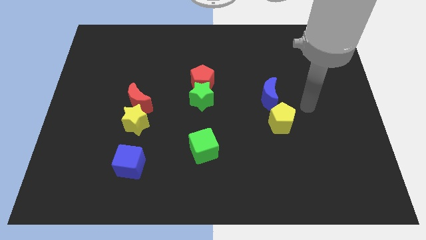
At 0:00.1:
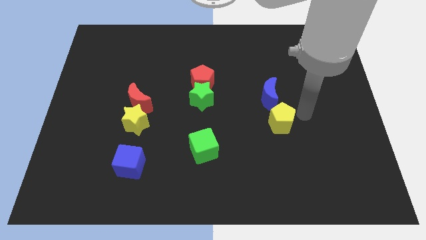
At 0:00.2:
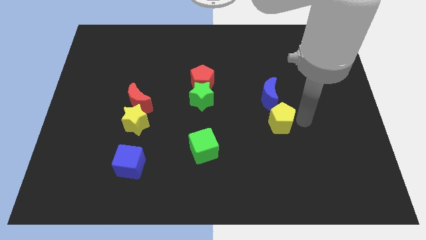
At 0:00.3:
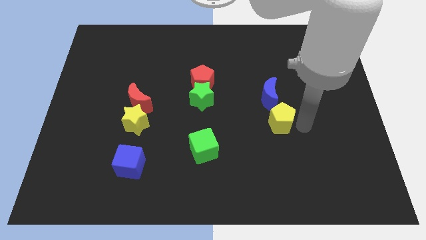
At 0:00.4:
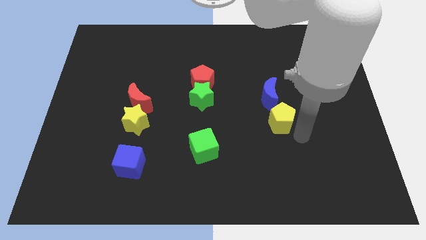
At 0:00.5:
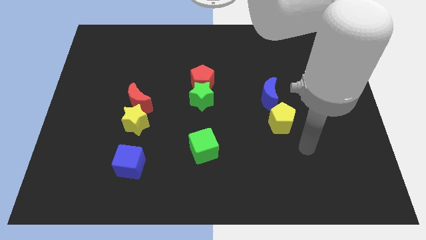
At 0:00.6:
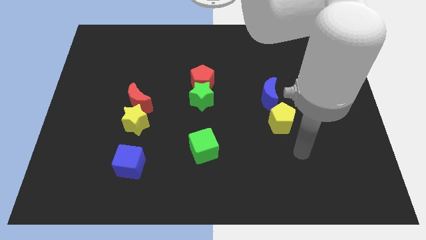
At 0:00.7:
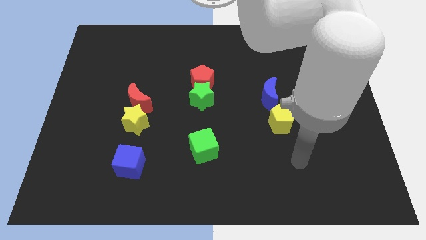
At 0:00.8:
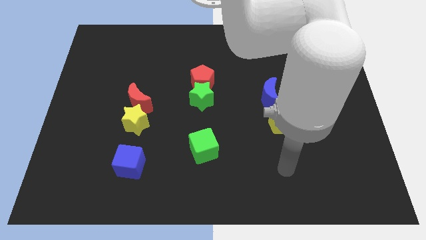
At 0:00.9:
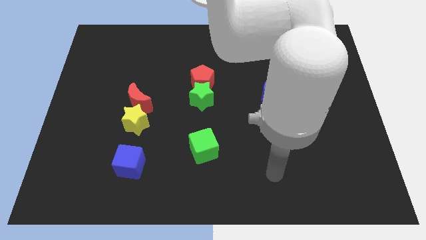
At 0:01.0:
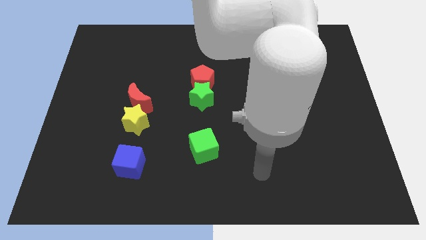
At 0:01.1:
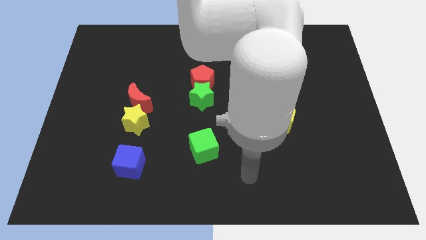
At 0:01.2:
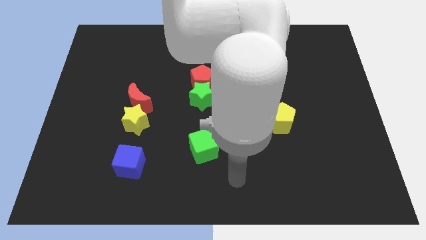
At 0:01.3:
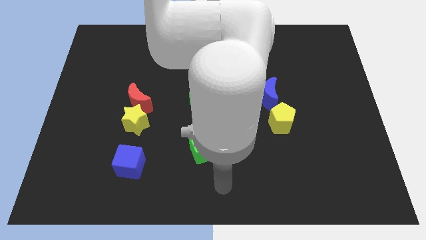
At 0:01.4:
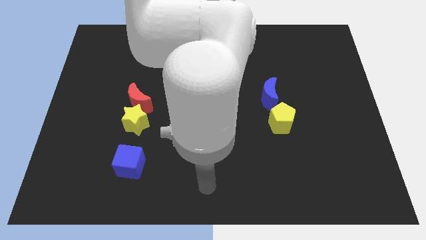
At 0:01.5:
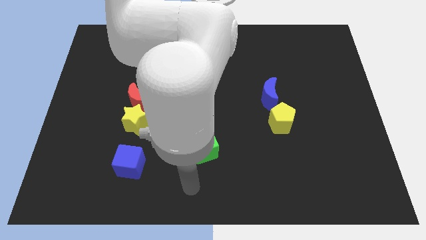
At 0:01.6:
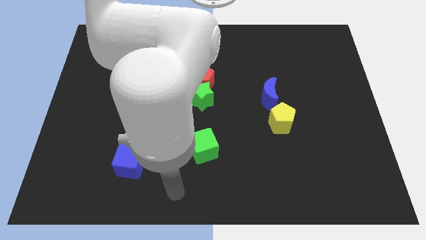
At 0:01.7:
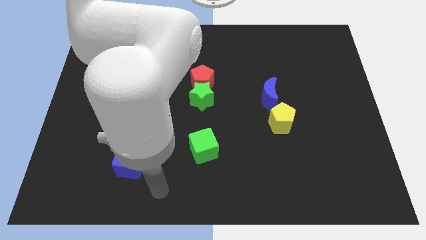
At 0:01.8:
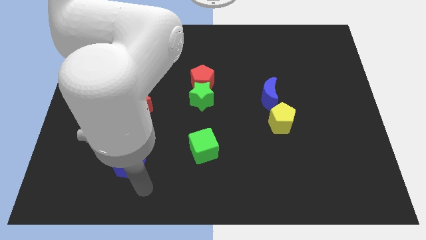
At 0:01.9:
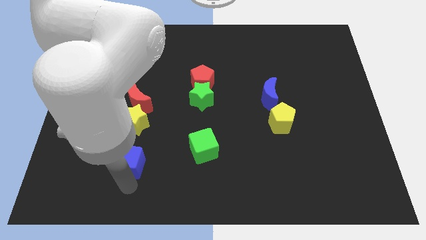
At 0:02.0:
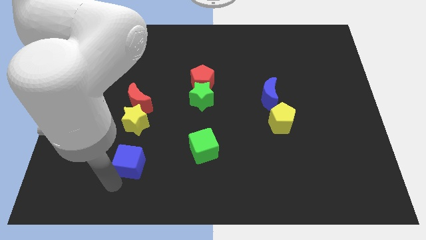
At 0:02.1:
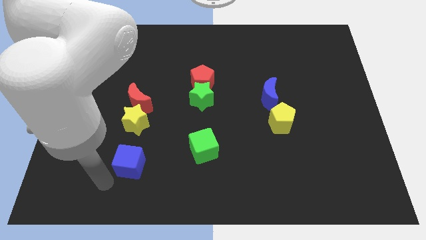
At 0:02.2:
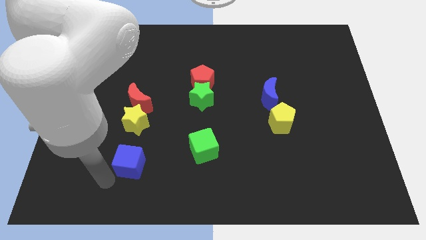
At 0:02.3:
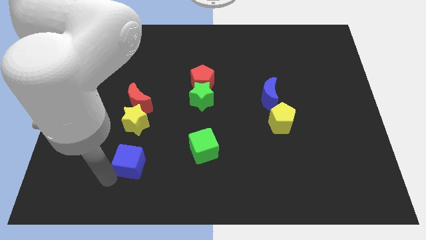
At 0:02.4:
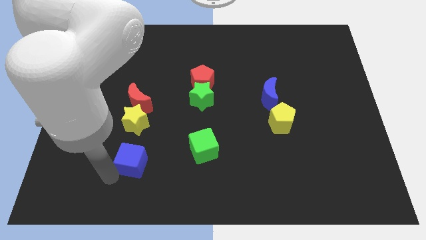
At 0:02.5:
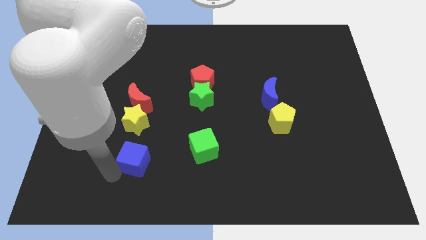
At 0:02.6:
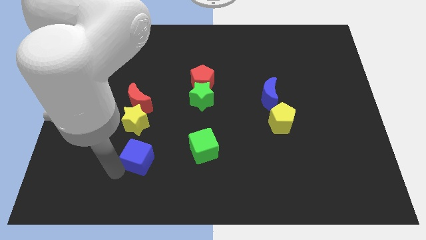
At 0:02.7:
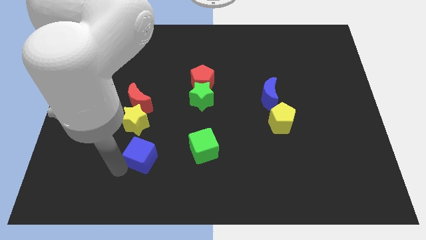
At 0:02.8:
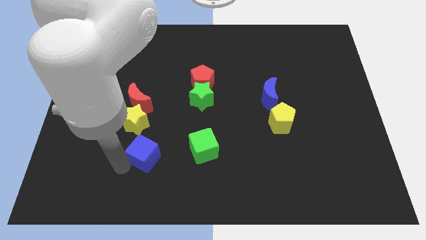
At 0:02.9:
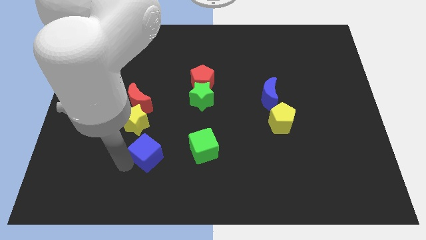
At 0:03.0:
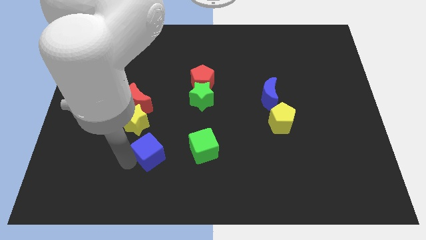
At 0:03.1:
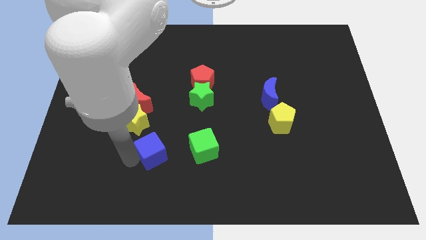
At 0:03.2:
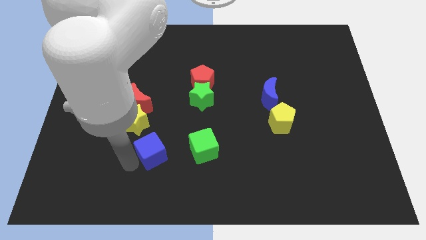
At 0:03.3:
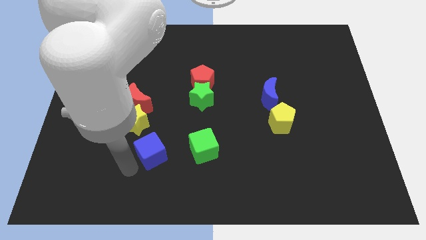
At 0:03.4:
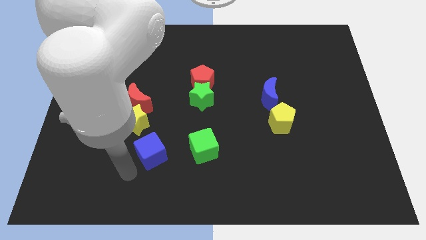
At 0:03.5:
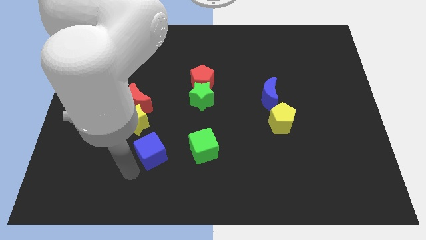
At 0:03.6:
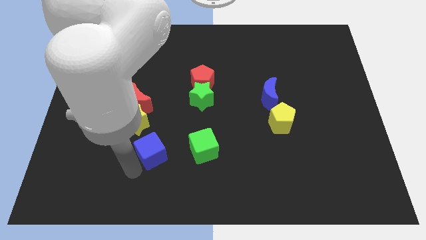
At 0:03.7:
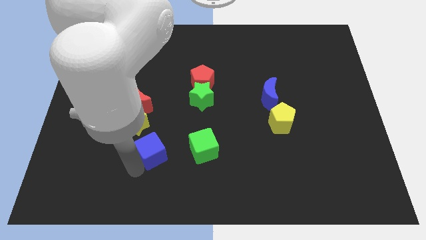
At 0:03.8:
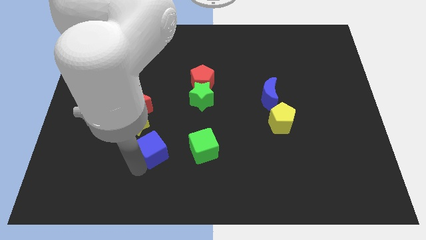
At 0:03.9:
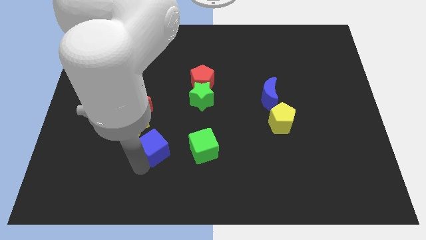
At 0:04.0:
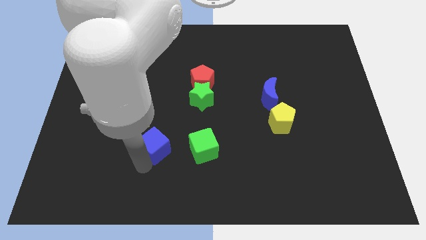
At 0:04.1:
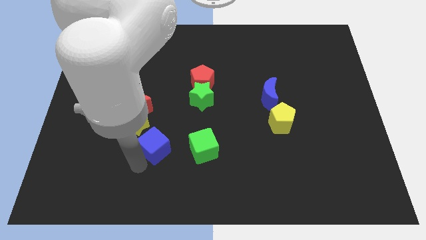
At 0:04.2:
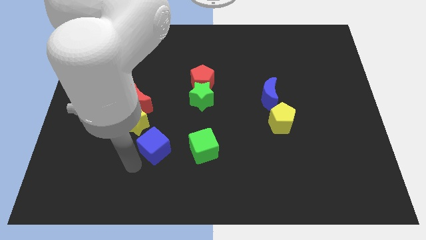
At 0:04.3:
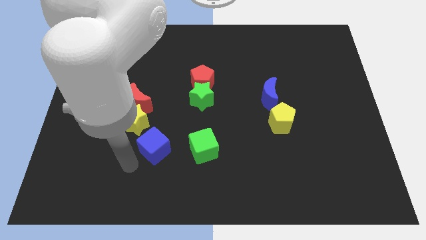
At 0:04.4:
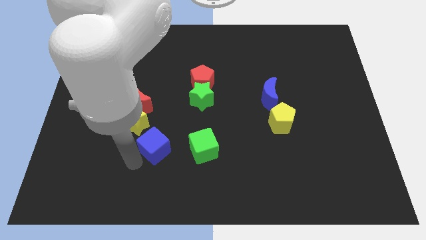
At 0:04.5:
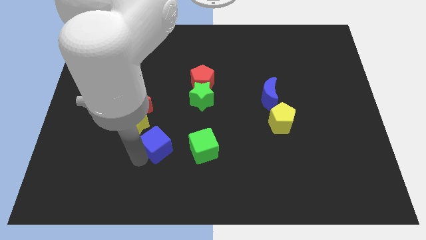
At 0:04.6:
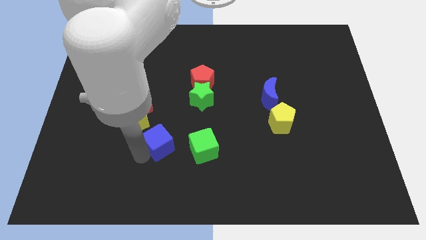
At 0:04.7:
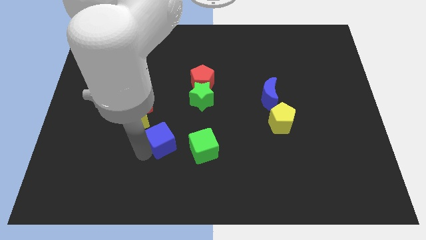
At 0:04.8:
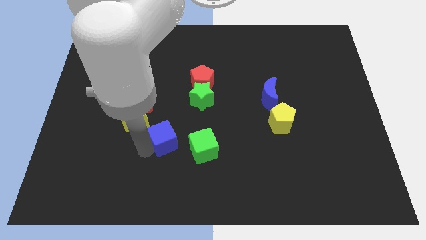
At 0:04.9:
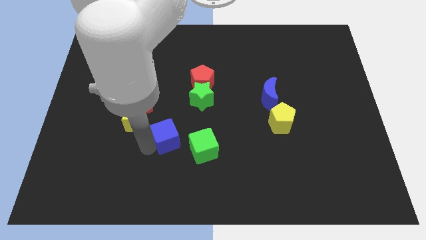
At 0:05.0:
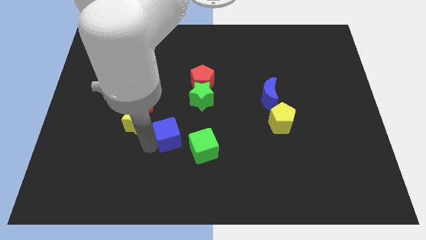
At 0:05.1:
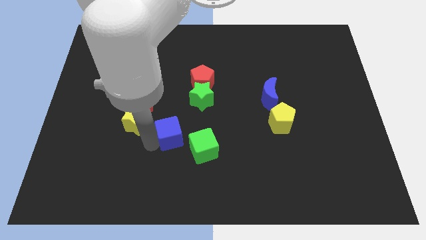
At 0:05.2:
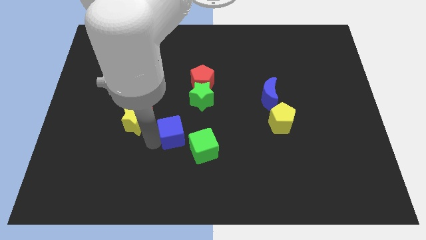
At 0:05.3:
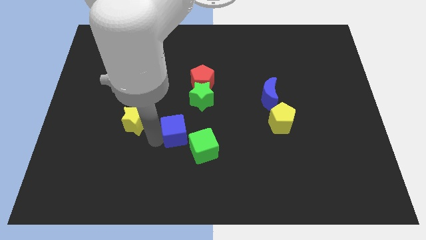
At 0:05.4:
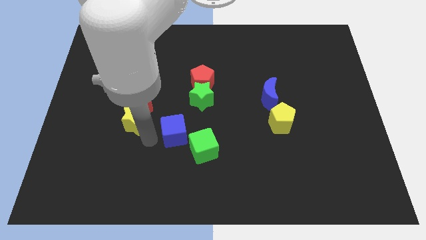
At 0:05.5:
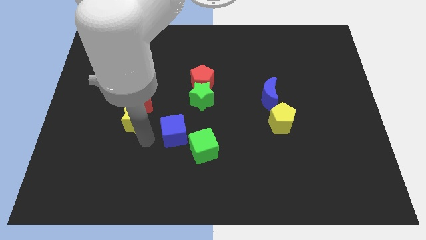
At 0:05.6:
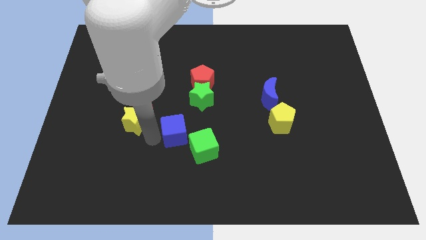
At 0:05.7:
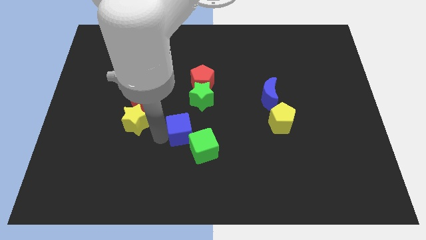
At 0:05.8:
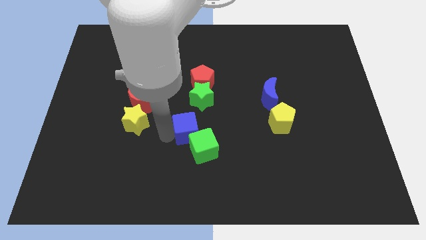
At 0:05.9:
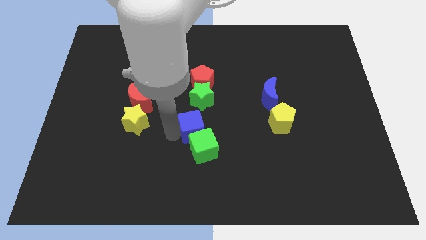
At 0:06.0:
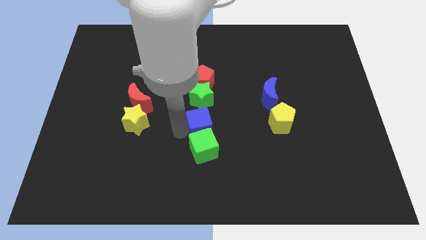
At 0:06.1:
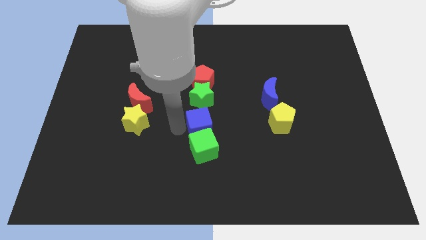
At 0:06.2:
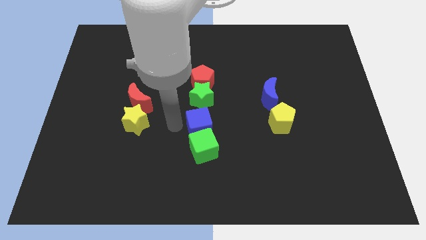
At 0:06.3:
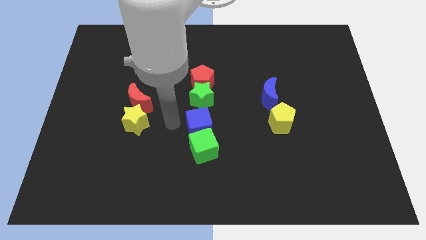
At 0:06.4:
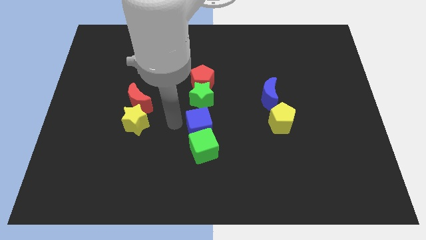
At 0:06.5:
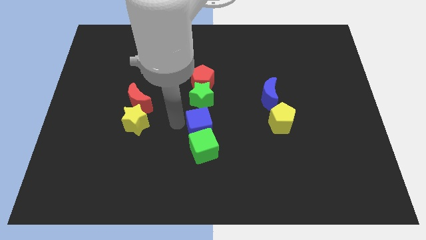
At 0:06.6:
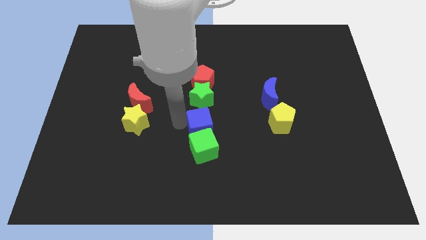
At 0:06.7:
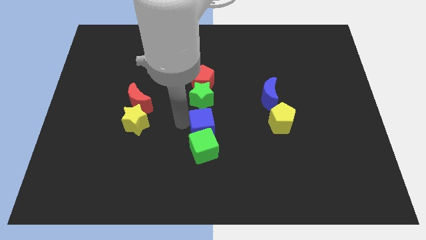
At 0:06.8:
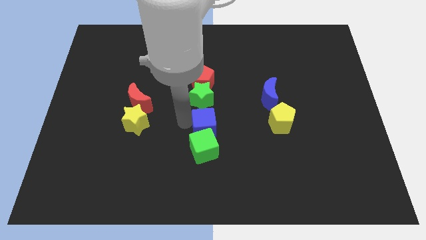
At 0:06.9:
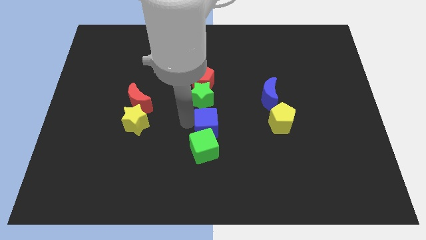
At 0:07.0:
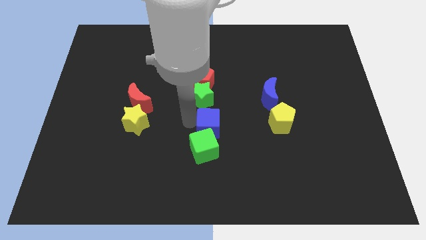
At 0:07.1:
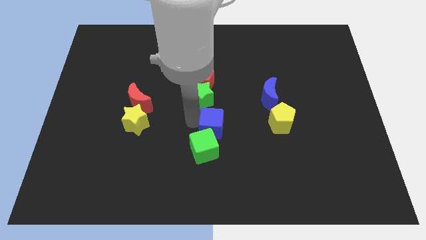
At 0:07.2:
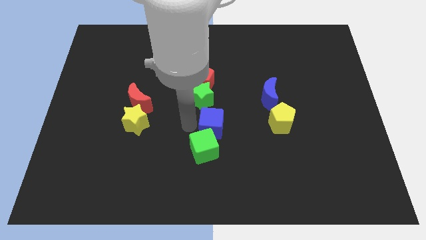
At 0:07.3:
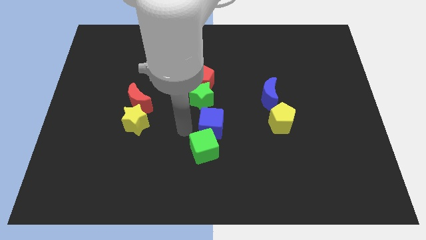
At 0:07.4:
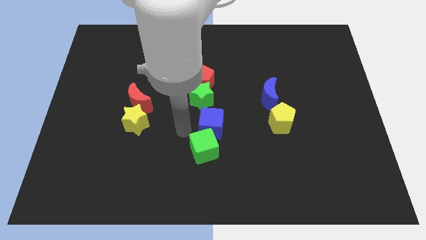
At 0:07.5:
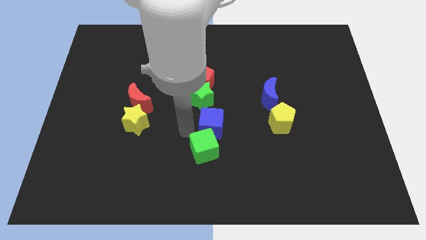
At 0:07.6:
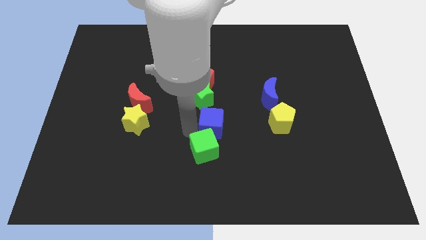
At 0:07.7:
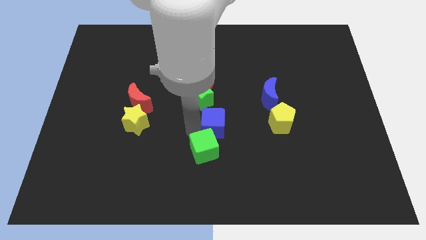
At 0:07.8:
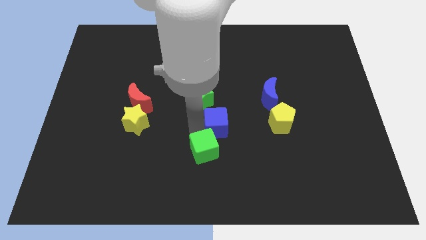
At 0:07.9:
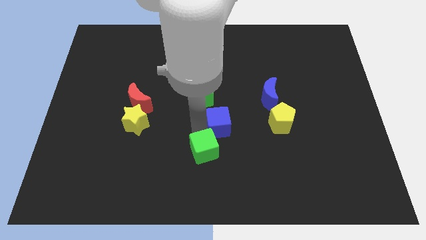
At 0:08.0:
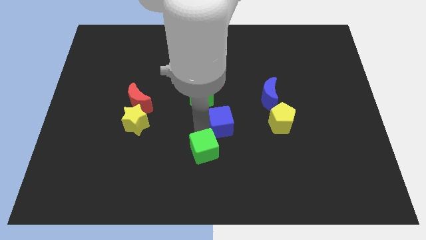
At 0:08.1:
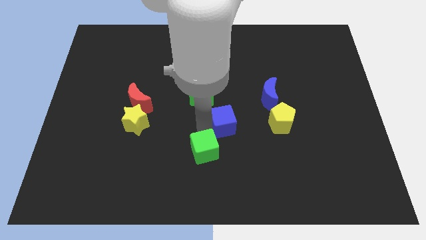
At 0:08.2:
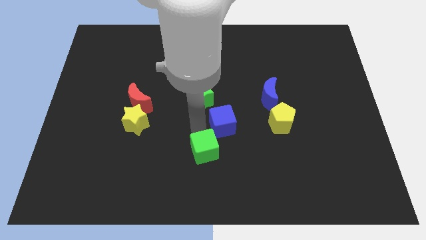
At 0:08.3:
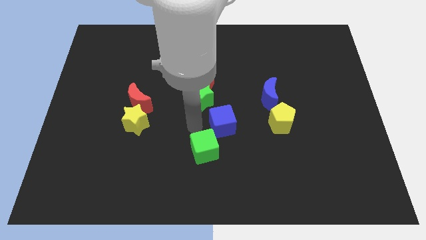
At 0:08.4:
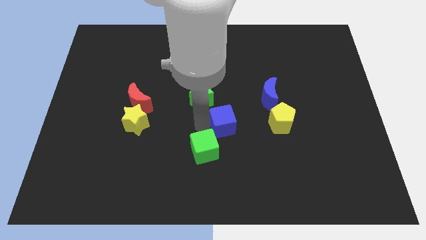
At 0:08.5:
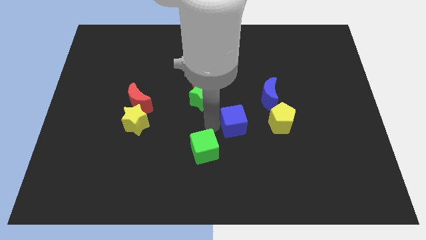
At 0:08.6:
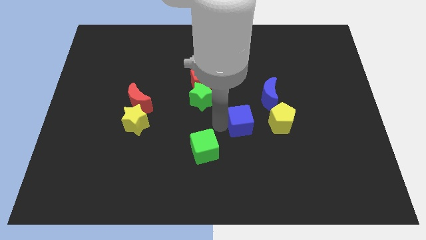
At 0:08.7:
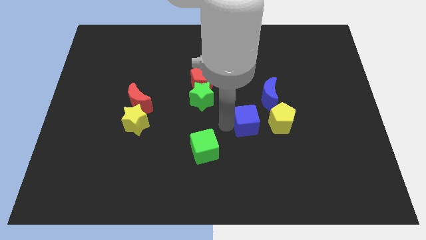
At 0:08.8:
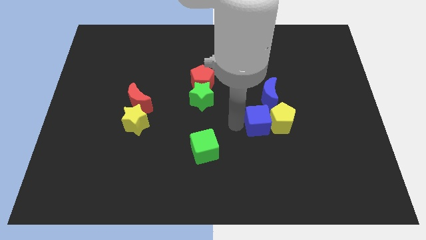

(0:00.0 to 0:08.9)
move the blue cube to the yellow pentagon
